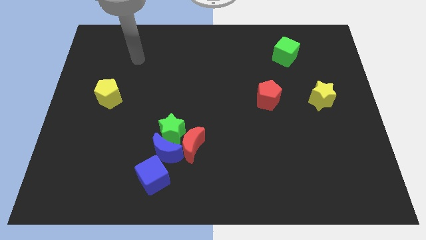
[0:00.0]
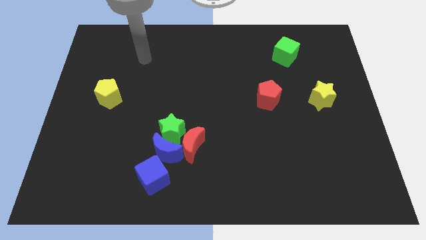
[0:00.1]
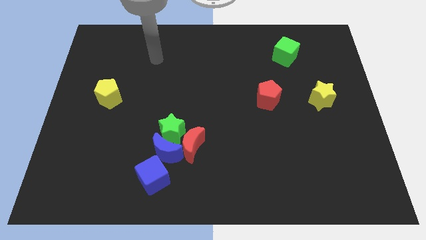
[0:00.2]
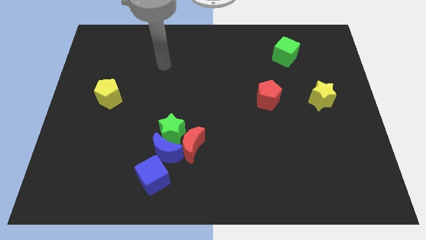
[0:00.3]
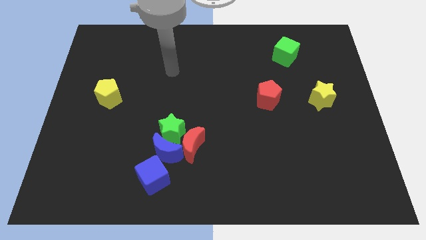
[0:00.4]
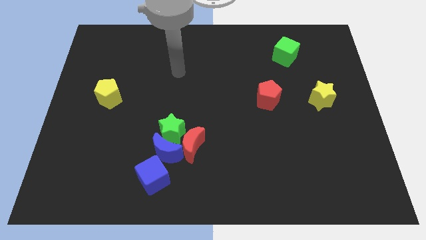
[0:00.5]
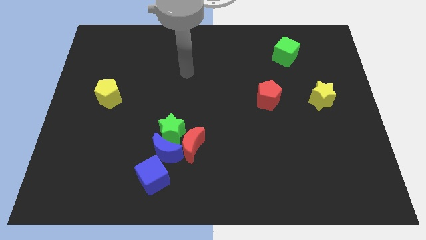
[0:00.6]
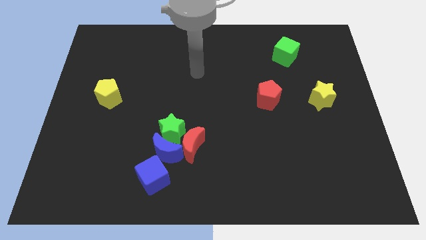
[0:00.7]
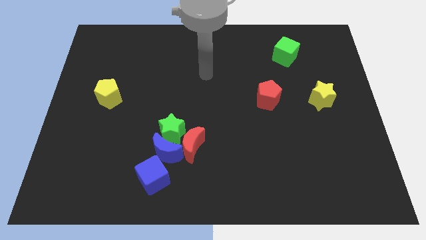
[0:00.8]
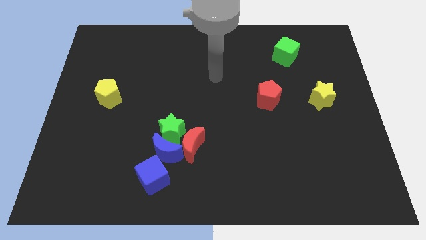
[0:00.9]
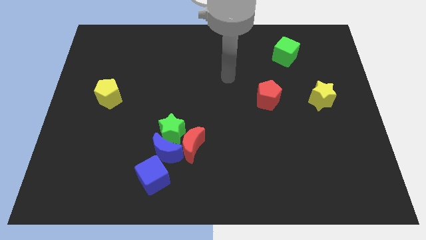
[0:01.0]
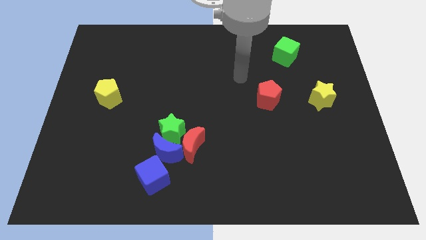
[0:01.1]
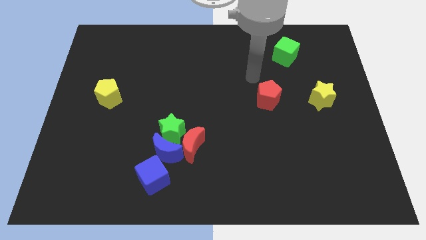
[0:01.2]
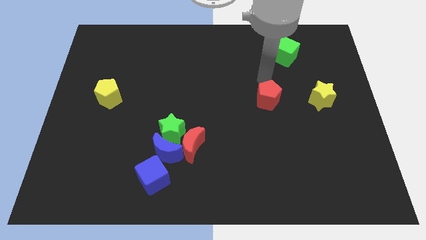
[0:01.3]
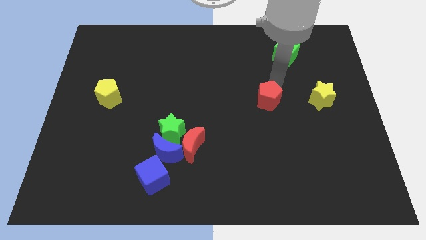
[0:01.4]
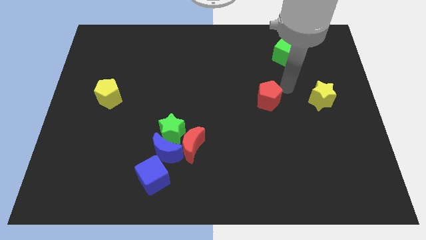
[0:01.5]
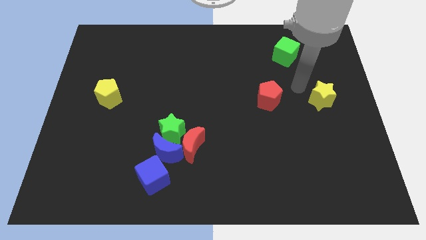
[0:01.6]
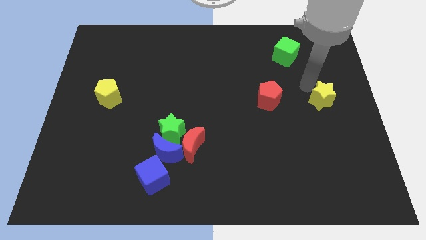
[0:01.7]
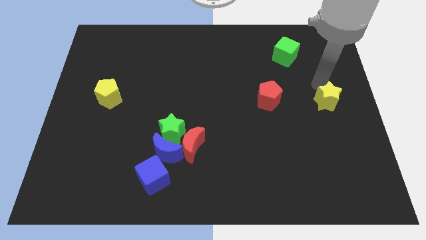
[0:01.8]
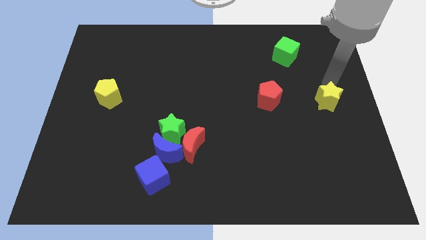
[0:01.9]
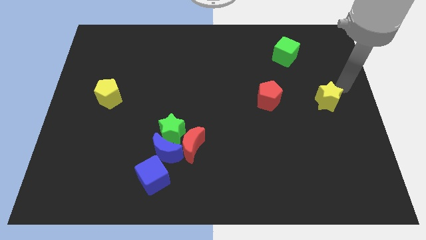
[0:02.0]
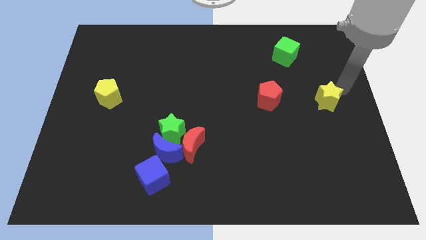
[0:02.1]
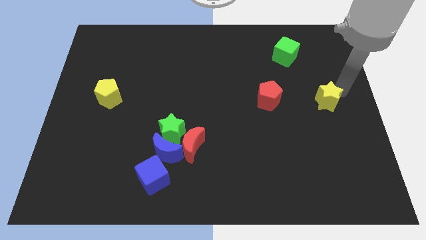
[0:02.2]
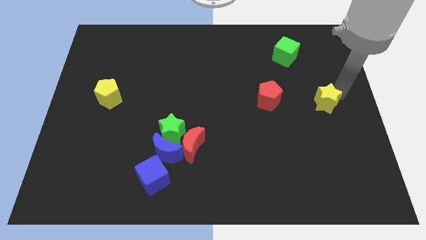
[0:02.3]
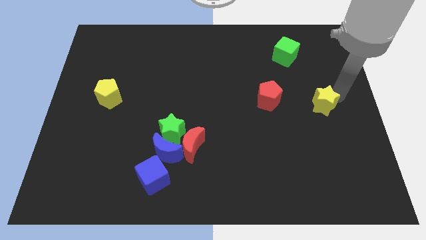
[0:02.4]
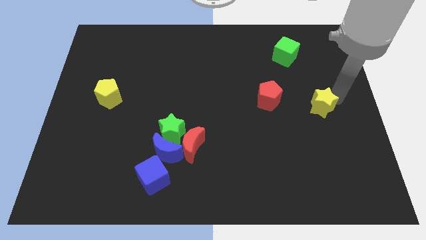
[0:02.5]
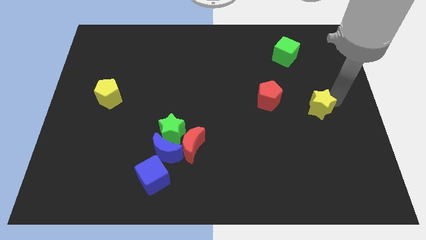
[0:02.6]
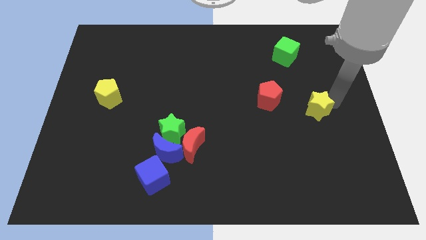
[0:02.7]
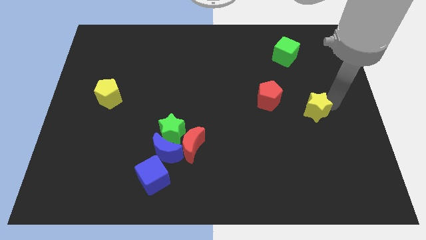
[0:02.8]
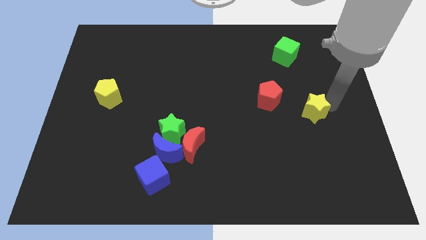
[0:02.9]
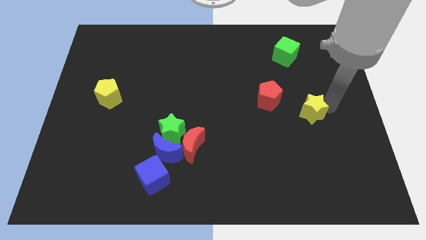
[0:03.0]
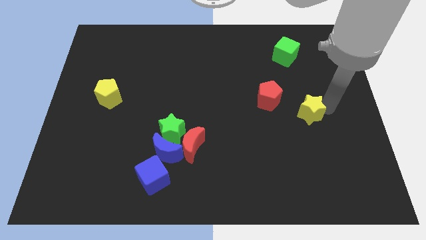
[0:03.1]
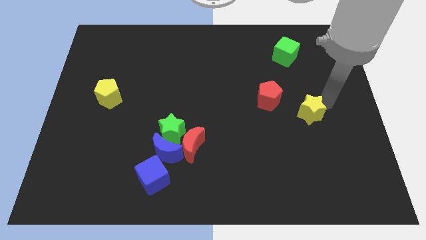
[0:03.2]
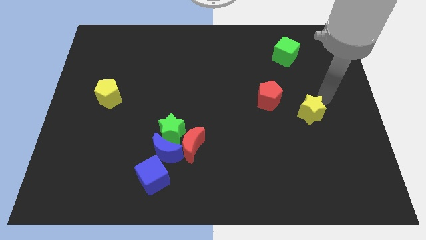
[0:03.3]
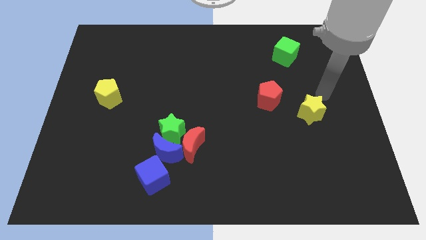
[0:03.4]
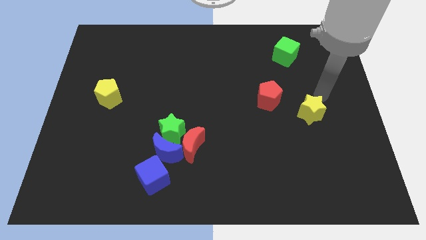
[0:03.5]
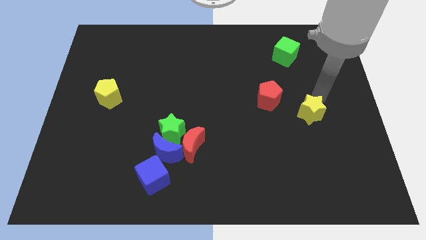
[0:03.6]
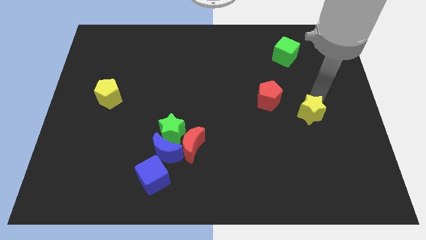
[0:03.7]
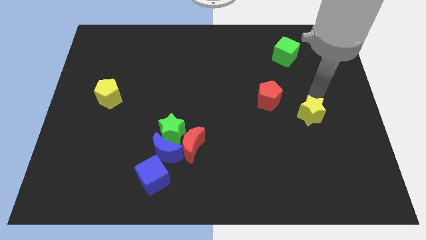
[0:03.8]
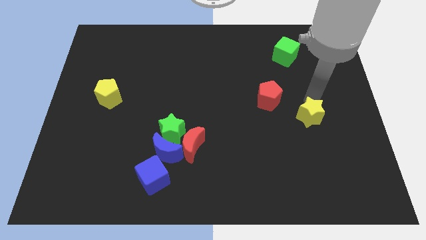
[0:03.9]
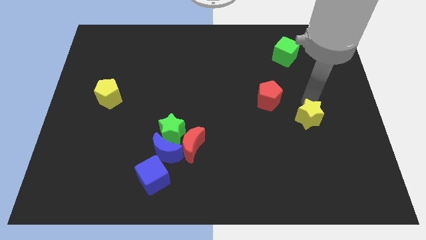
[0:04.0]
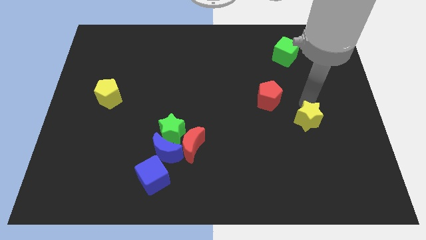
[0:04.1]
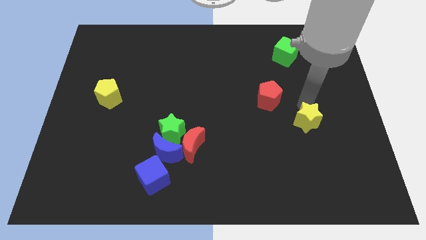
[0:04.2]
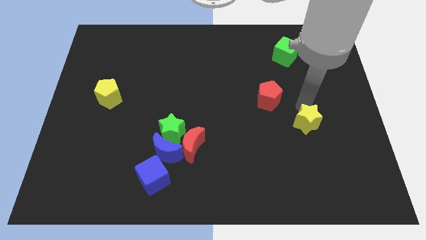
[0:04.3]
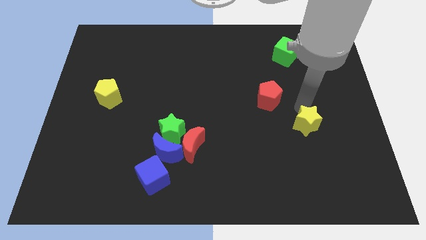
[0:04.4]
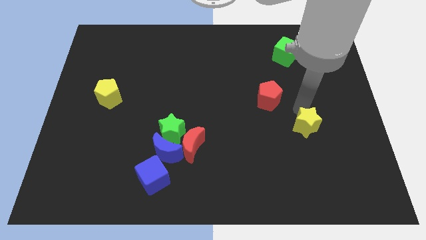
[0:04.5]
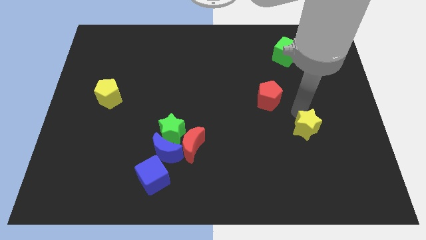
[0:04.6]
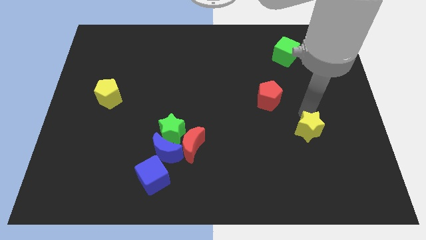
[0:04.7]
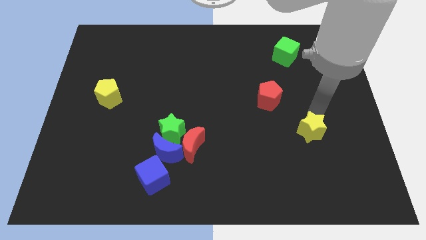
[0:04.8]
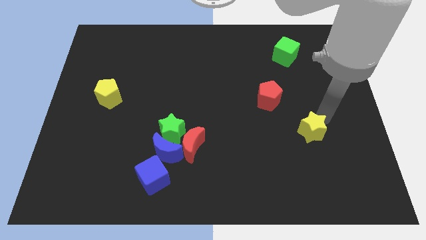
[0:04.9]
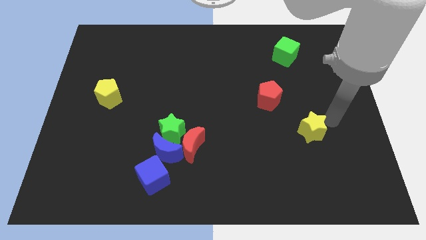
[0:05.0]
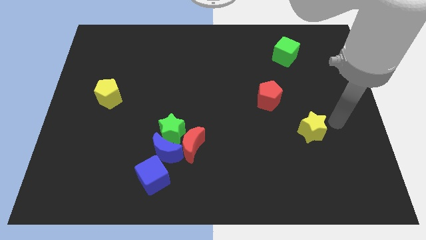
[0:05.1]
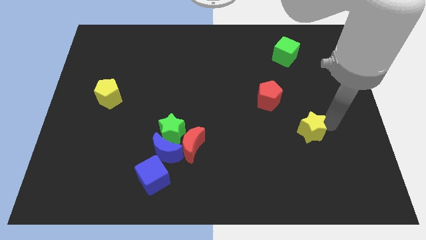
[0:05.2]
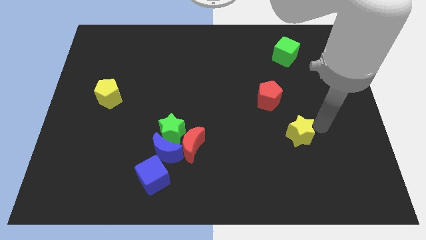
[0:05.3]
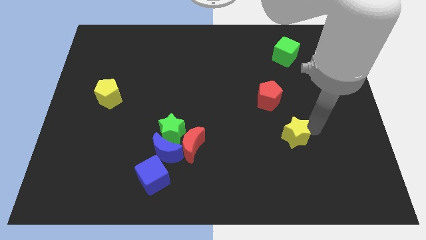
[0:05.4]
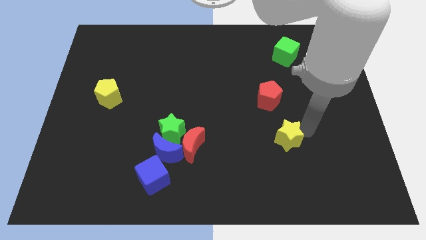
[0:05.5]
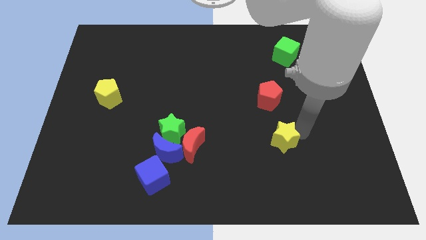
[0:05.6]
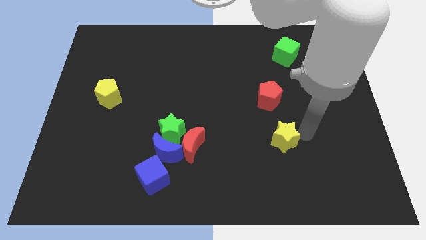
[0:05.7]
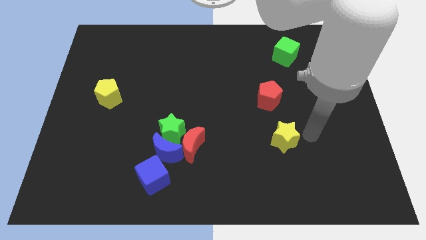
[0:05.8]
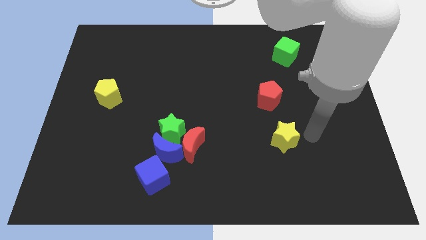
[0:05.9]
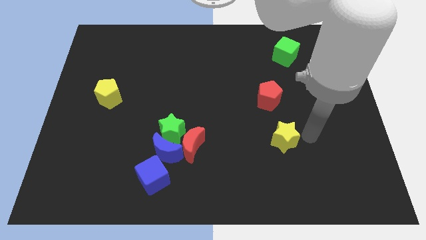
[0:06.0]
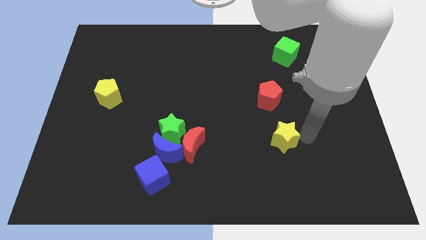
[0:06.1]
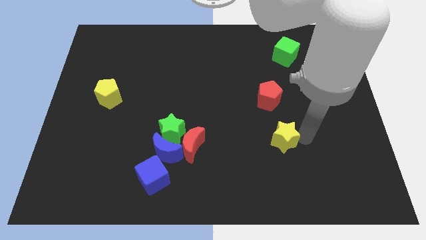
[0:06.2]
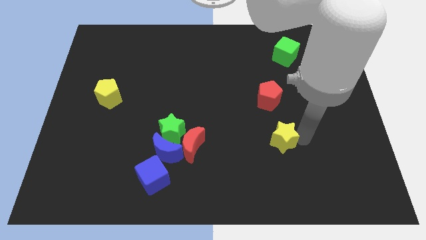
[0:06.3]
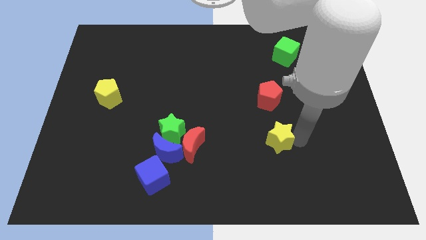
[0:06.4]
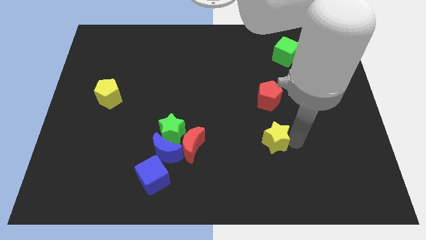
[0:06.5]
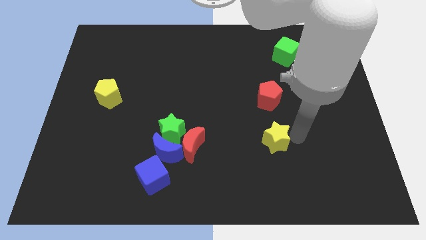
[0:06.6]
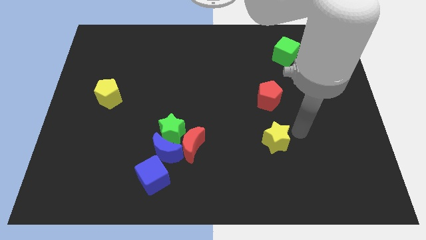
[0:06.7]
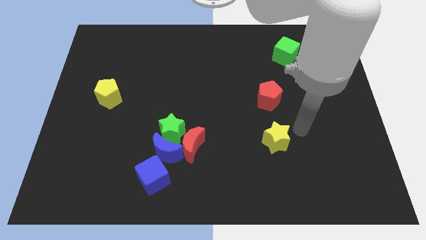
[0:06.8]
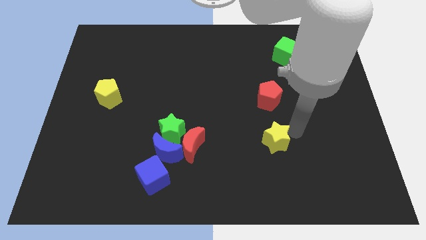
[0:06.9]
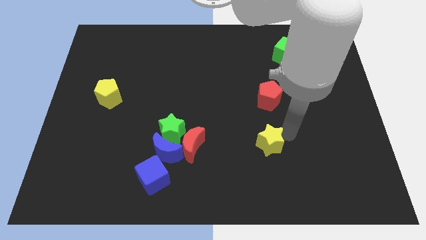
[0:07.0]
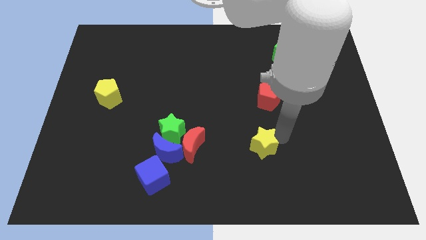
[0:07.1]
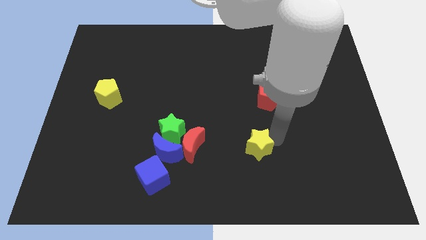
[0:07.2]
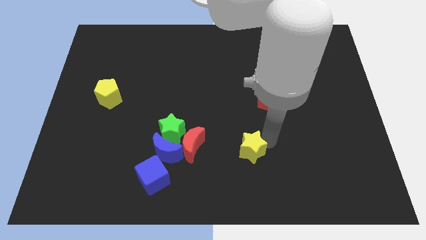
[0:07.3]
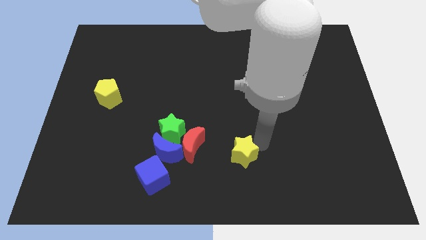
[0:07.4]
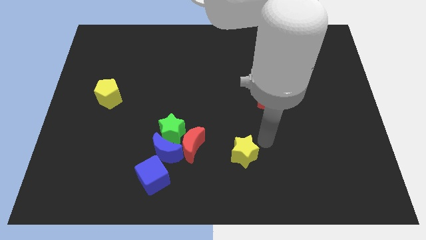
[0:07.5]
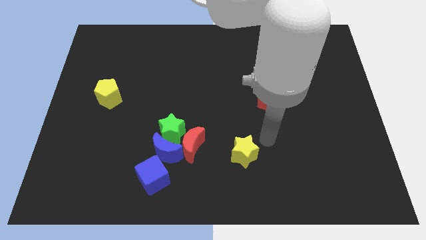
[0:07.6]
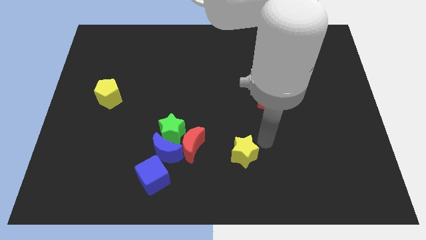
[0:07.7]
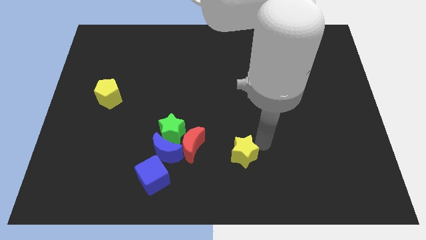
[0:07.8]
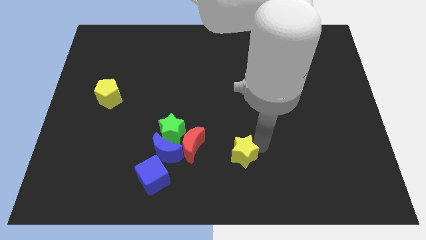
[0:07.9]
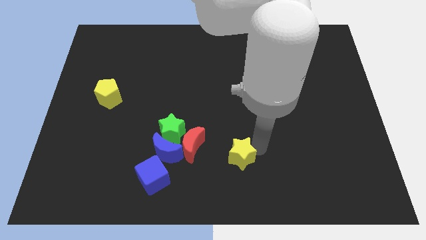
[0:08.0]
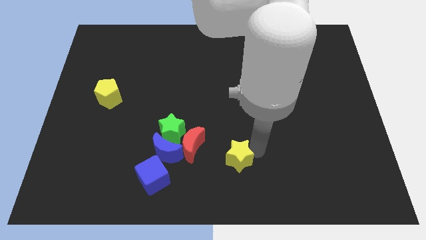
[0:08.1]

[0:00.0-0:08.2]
slide the yellow star to the bottom right of the red moon
